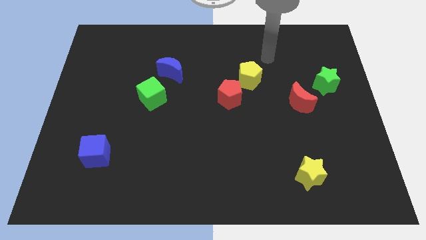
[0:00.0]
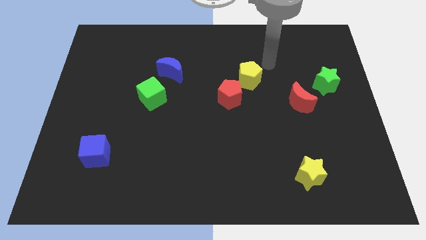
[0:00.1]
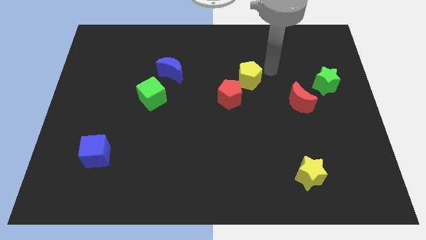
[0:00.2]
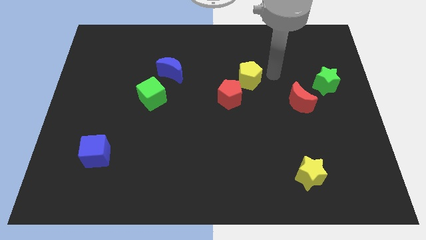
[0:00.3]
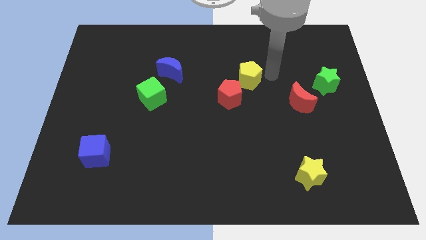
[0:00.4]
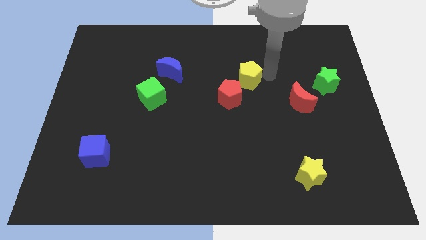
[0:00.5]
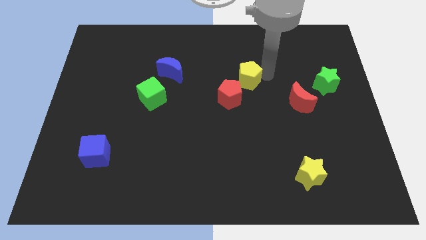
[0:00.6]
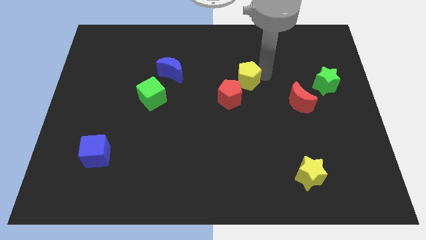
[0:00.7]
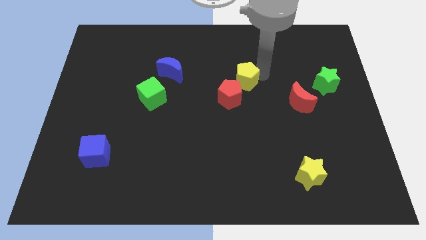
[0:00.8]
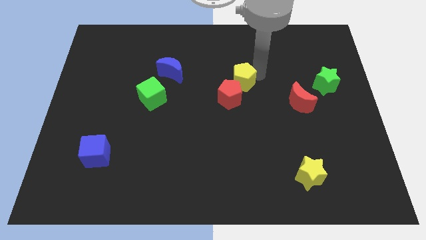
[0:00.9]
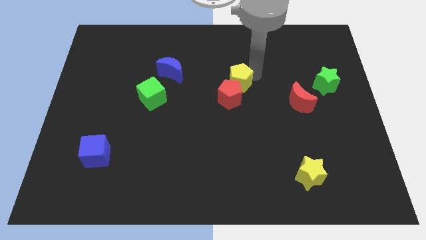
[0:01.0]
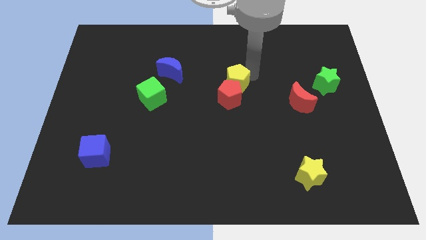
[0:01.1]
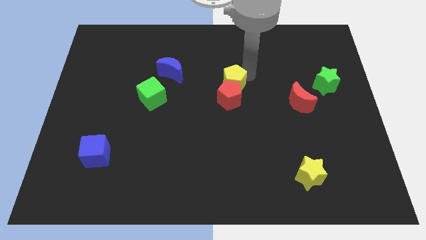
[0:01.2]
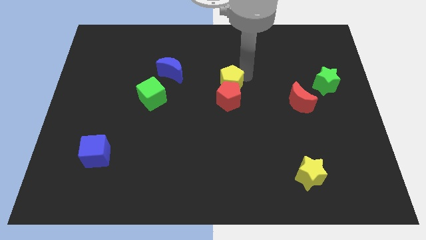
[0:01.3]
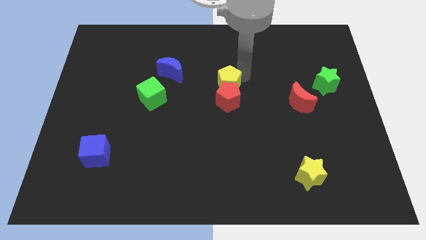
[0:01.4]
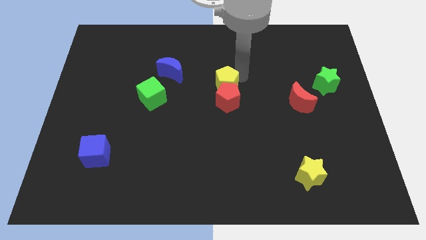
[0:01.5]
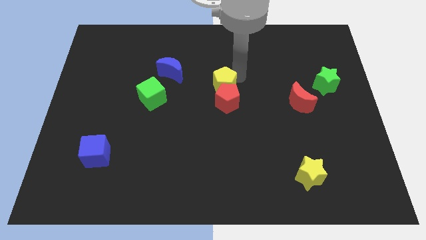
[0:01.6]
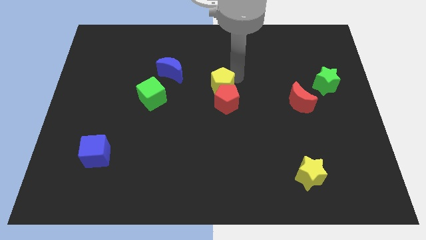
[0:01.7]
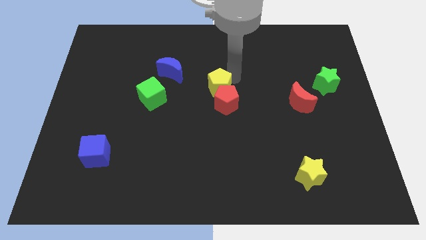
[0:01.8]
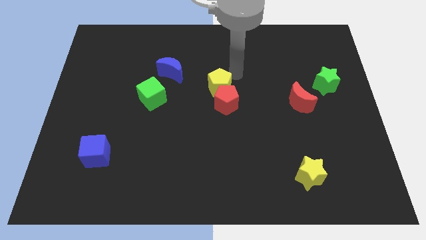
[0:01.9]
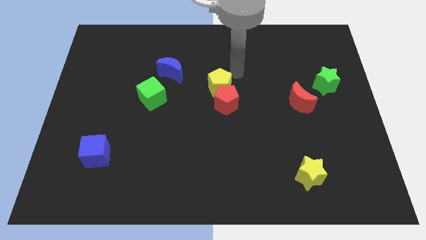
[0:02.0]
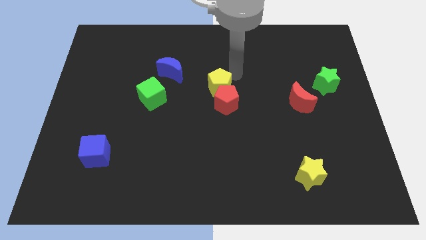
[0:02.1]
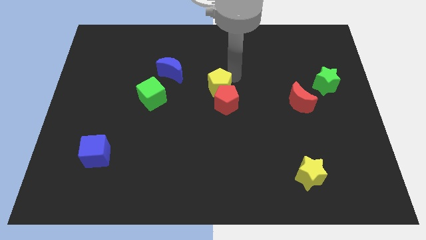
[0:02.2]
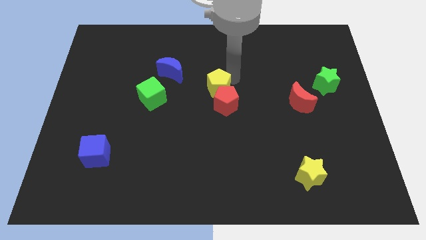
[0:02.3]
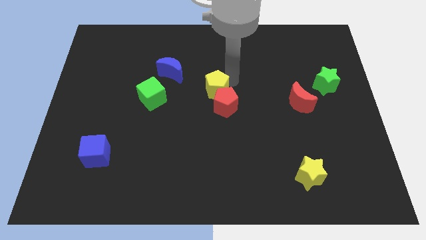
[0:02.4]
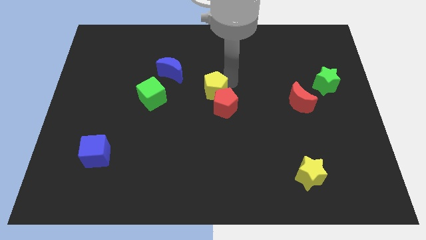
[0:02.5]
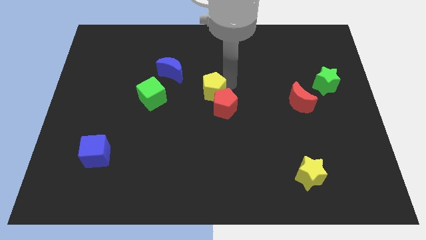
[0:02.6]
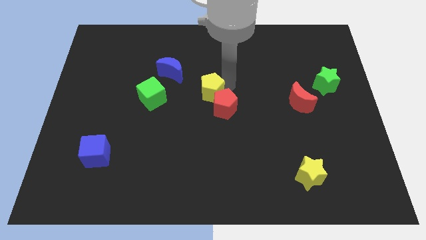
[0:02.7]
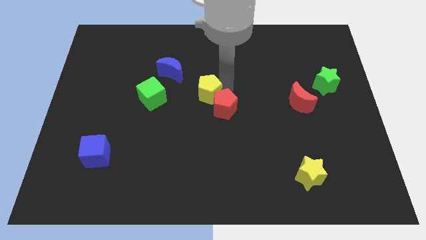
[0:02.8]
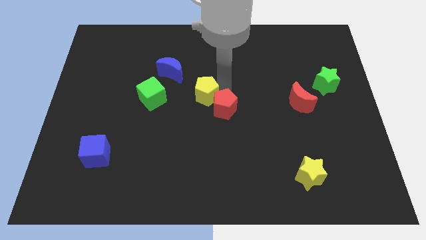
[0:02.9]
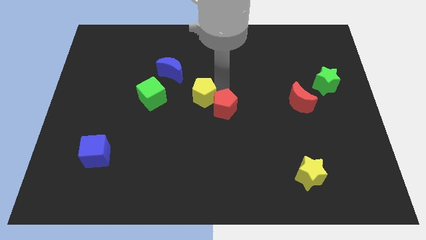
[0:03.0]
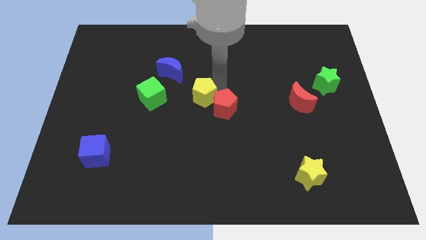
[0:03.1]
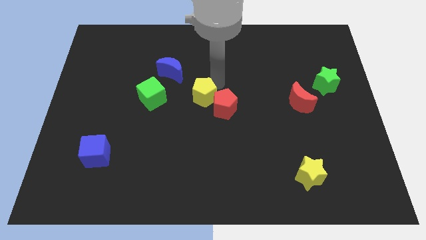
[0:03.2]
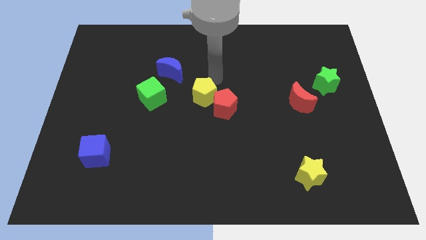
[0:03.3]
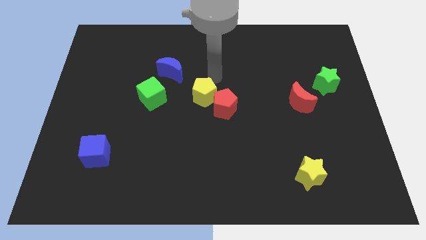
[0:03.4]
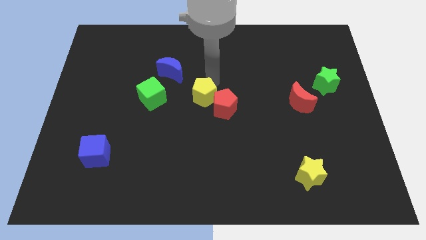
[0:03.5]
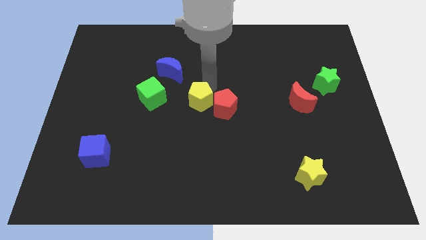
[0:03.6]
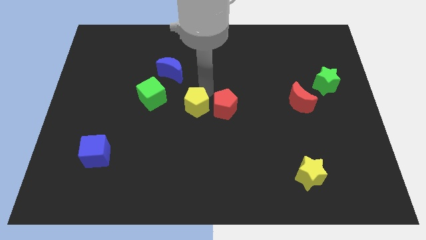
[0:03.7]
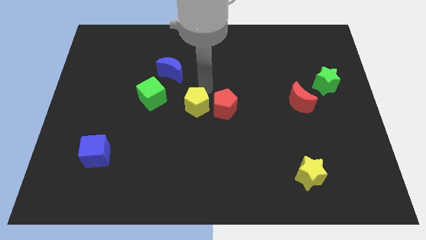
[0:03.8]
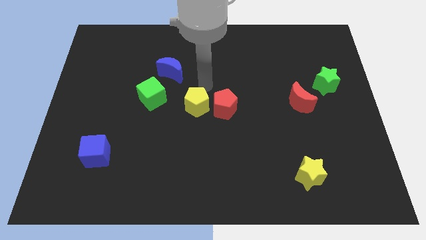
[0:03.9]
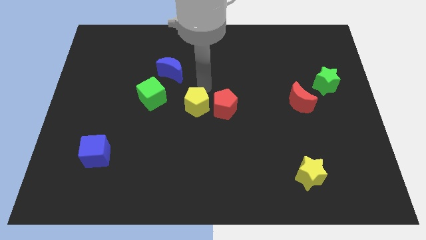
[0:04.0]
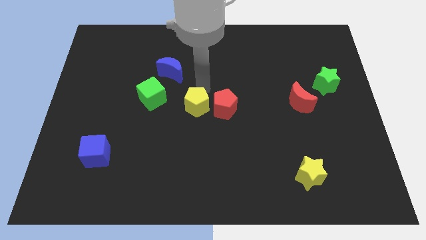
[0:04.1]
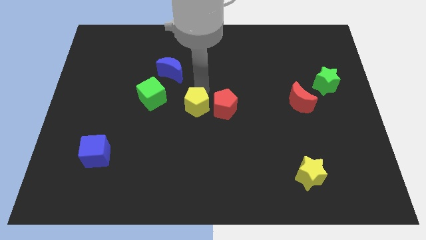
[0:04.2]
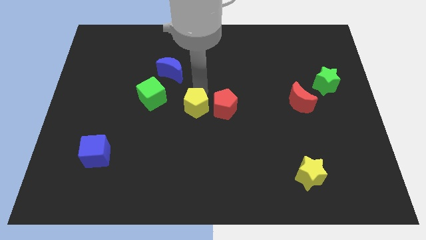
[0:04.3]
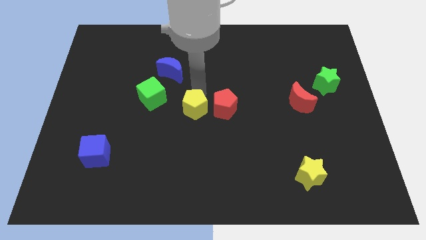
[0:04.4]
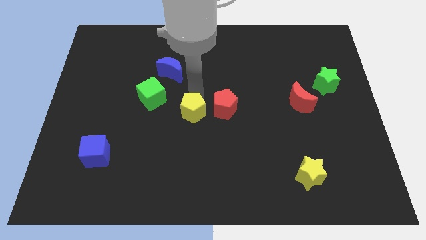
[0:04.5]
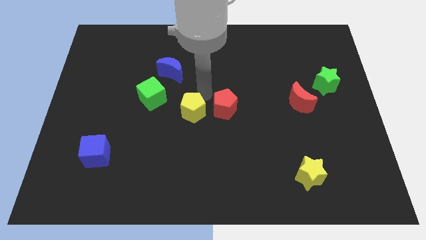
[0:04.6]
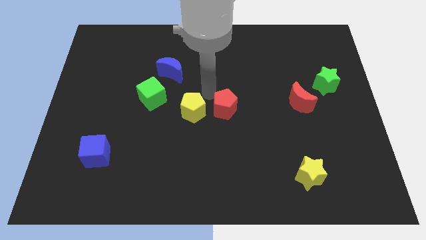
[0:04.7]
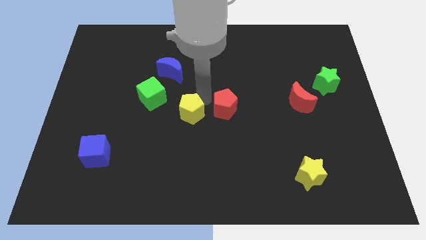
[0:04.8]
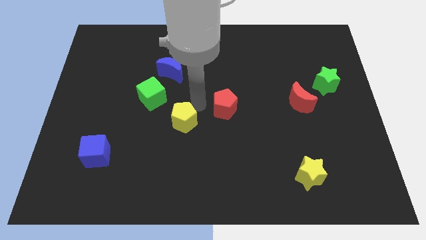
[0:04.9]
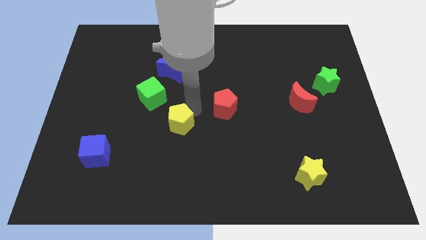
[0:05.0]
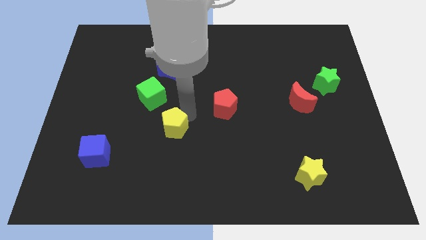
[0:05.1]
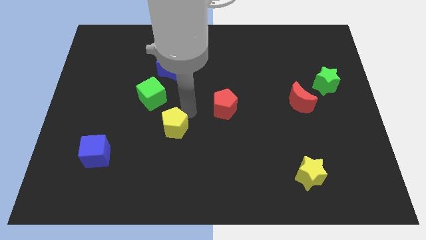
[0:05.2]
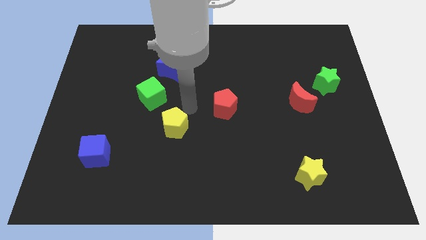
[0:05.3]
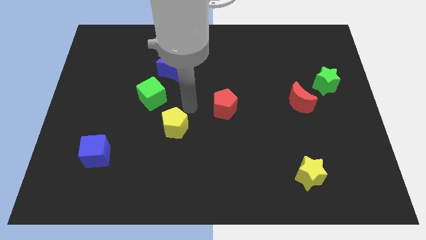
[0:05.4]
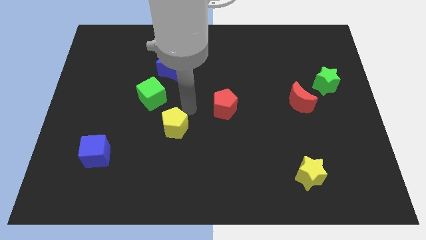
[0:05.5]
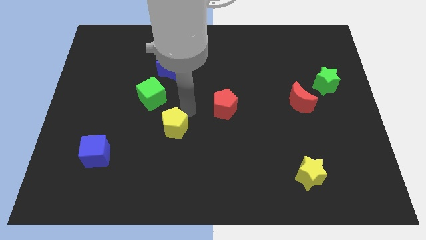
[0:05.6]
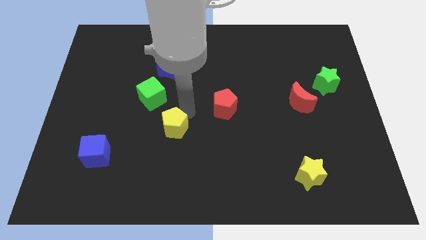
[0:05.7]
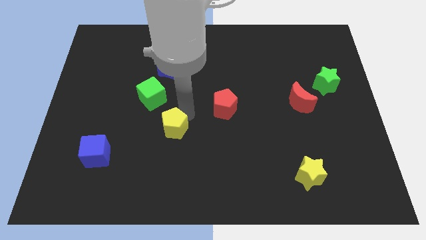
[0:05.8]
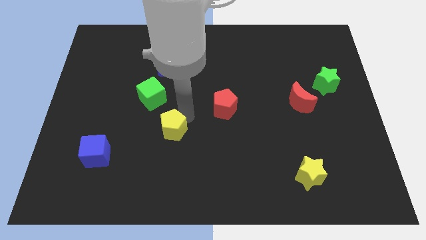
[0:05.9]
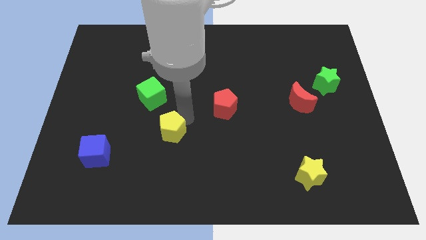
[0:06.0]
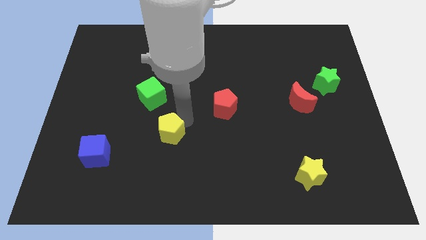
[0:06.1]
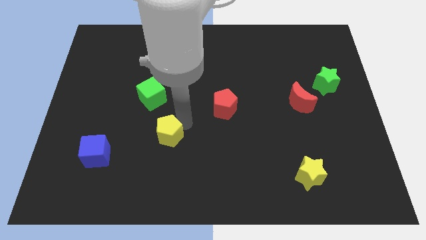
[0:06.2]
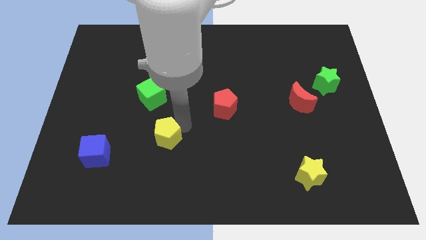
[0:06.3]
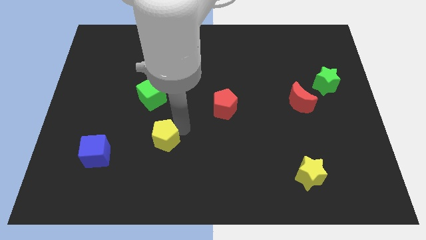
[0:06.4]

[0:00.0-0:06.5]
move the yellow pentagon right of the blue cube

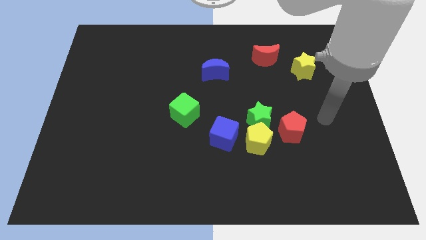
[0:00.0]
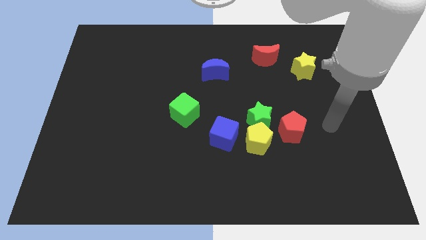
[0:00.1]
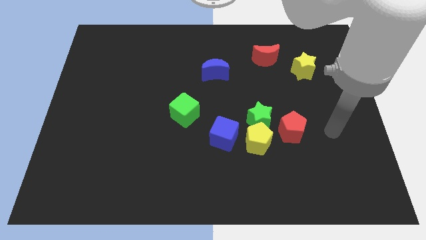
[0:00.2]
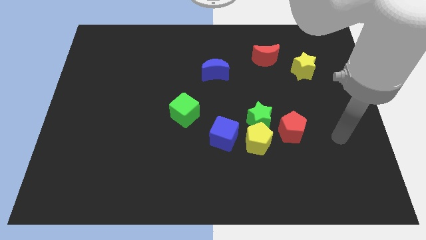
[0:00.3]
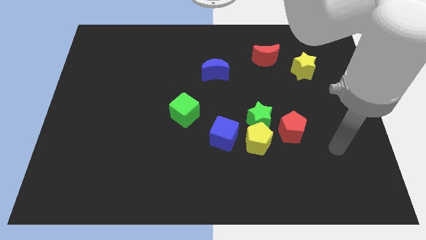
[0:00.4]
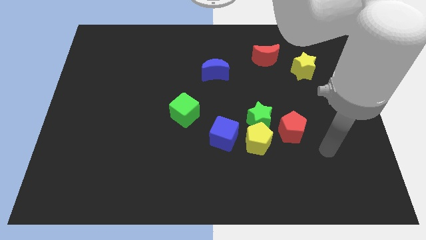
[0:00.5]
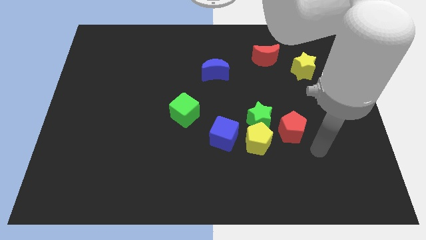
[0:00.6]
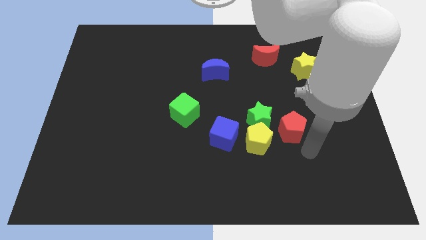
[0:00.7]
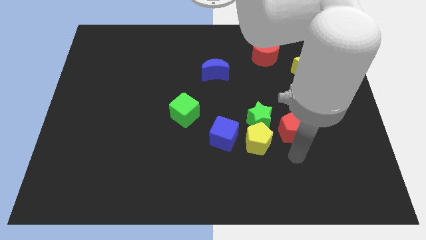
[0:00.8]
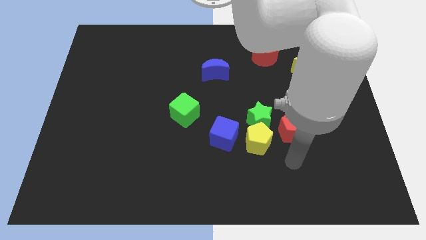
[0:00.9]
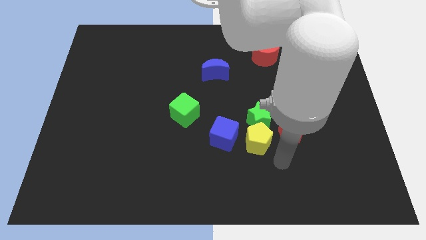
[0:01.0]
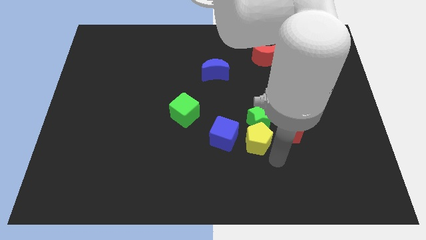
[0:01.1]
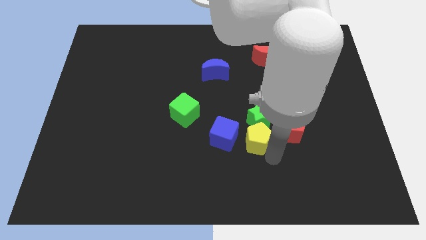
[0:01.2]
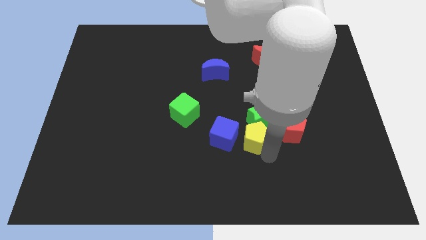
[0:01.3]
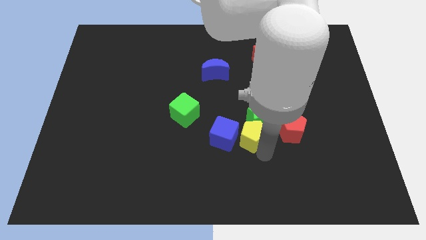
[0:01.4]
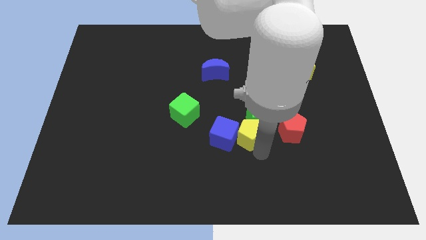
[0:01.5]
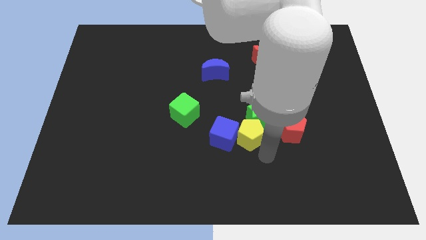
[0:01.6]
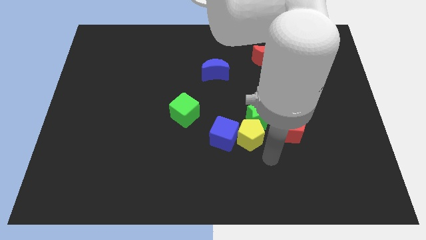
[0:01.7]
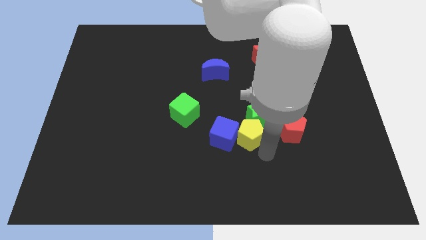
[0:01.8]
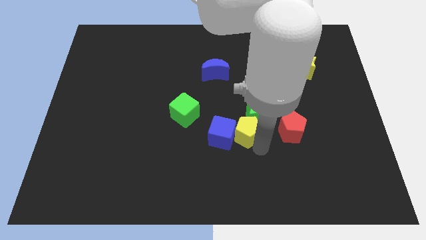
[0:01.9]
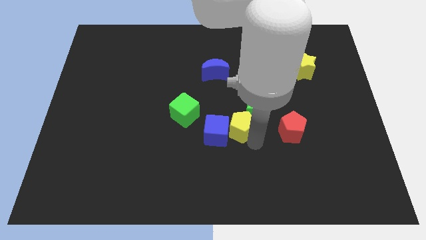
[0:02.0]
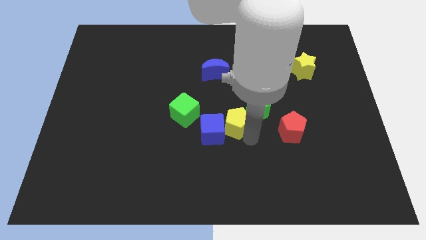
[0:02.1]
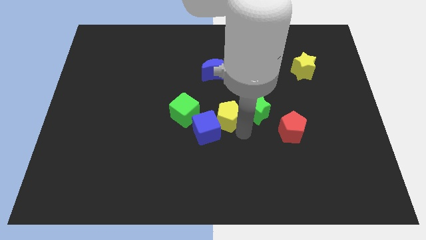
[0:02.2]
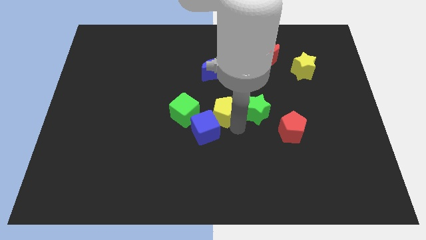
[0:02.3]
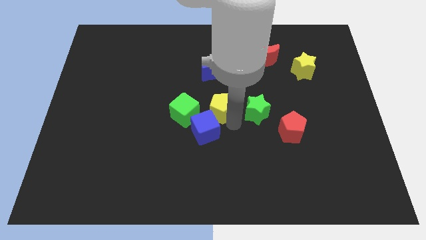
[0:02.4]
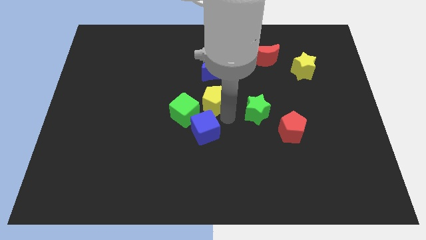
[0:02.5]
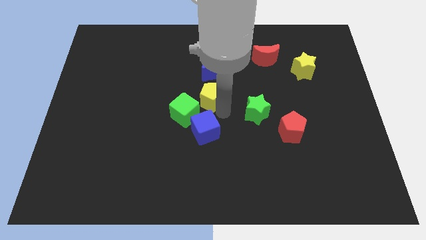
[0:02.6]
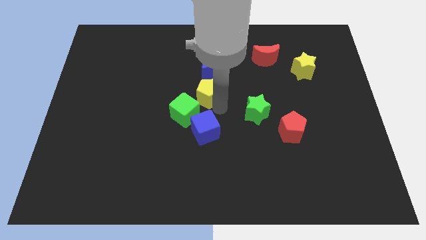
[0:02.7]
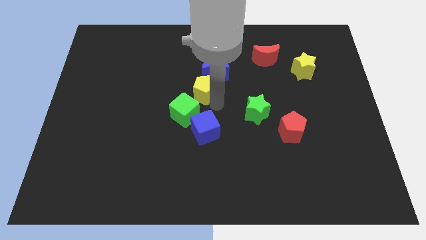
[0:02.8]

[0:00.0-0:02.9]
put the yellow pentagon to the top side of the green cube
